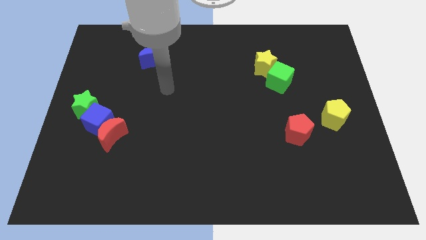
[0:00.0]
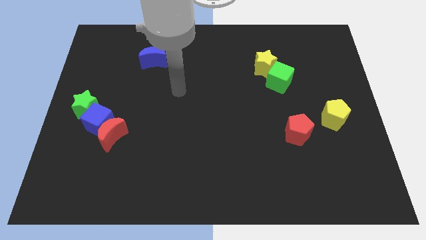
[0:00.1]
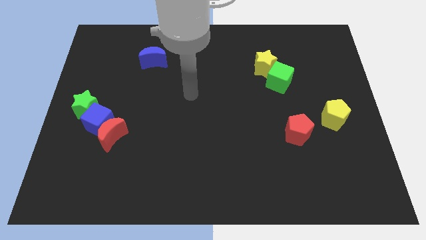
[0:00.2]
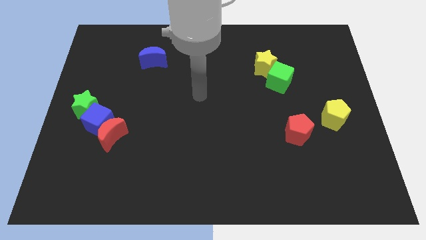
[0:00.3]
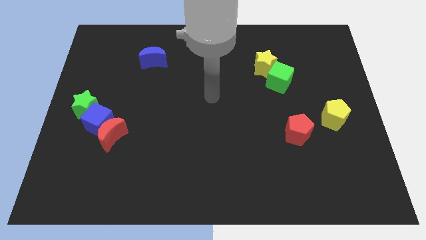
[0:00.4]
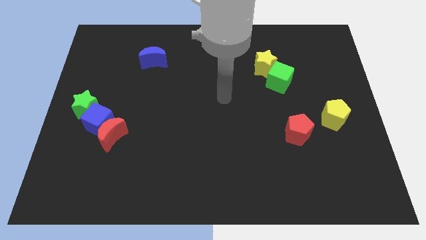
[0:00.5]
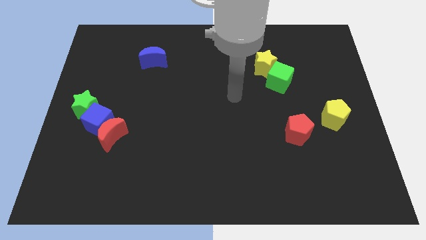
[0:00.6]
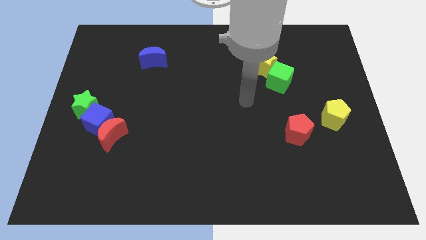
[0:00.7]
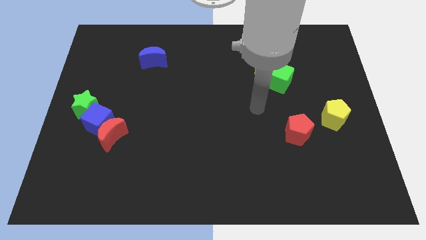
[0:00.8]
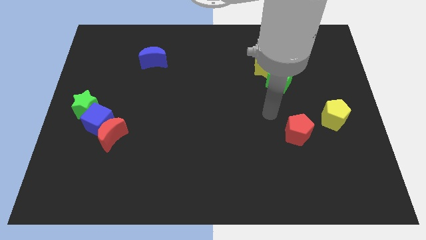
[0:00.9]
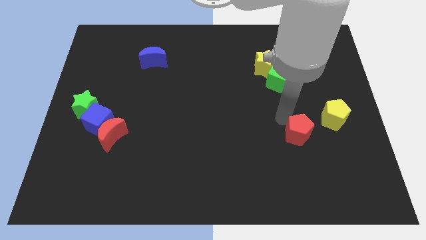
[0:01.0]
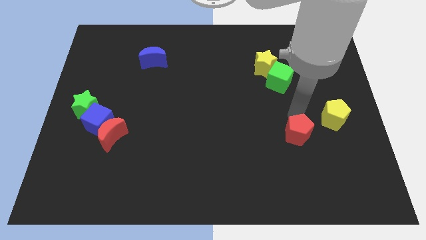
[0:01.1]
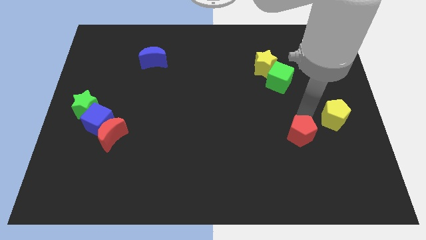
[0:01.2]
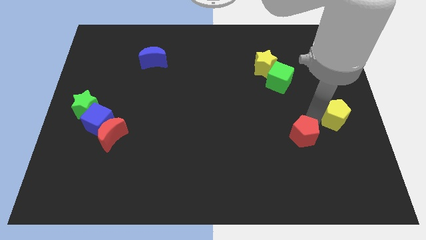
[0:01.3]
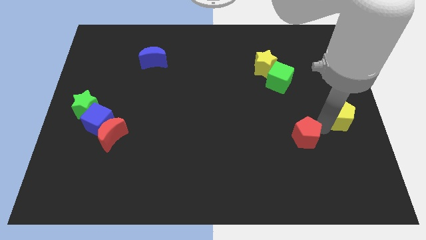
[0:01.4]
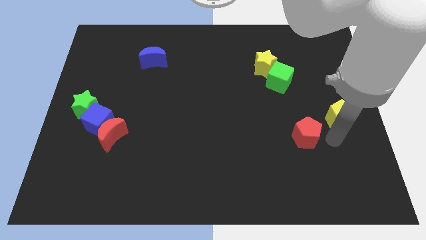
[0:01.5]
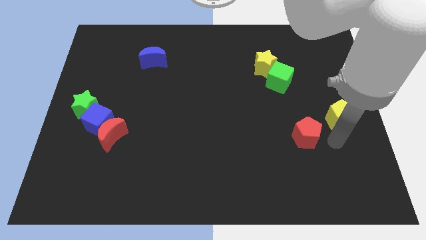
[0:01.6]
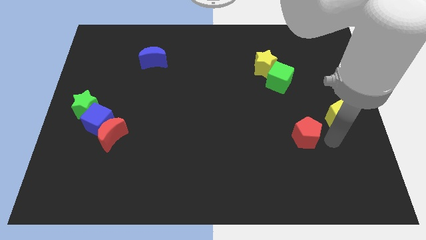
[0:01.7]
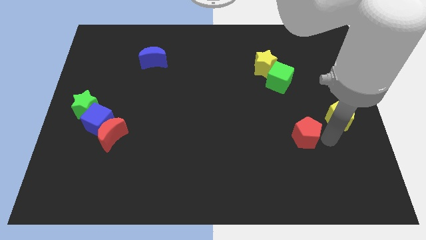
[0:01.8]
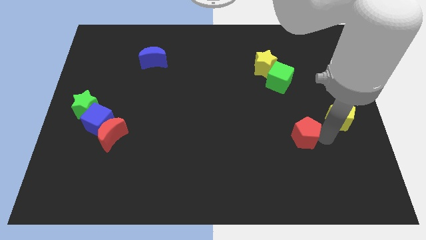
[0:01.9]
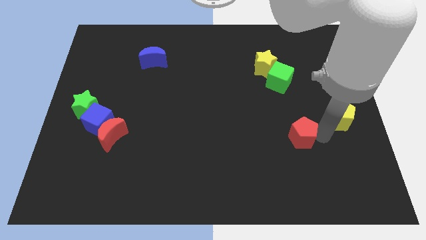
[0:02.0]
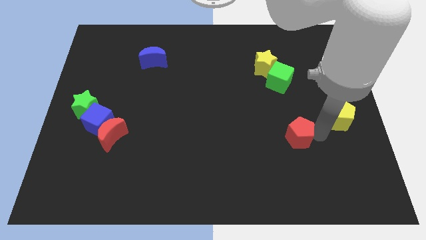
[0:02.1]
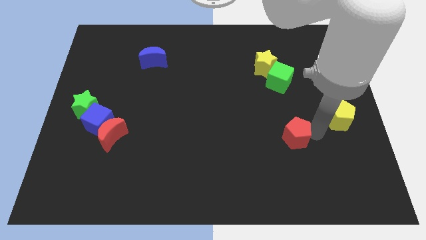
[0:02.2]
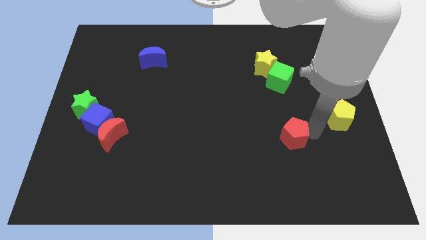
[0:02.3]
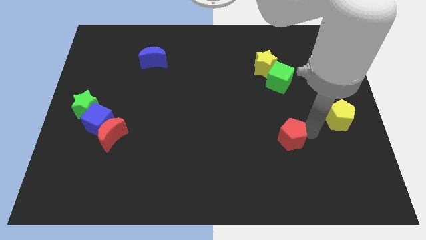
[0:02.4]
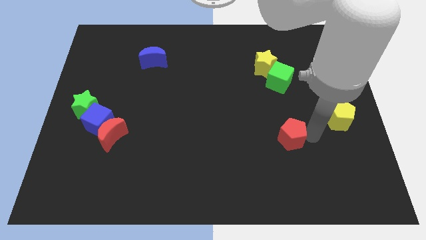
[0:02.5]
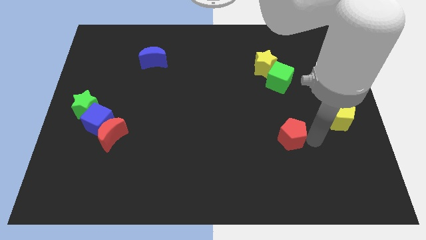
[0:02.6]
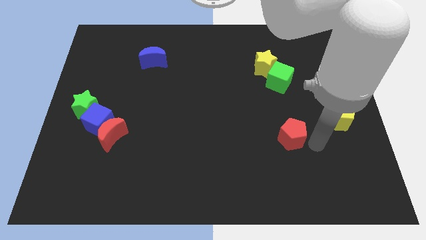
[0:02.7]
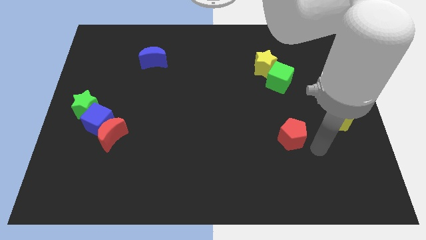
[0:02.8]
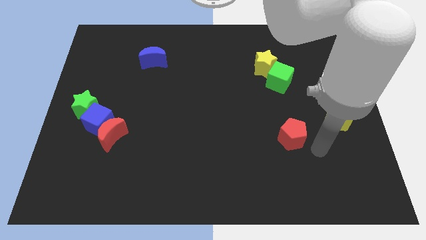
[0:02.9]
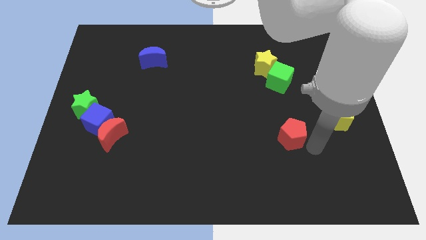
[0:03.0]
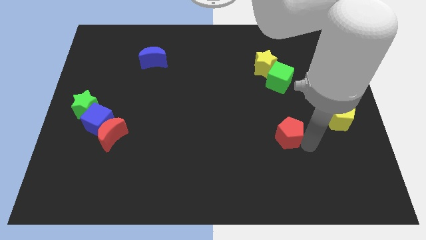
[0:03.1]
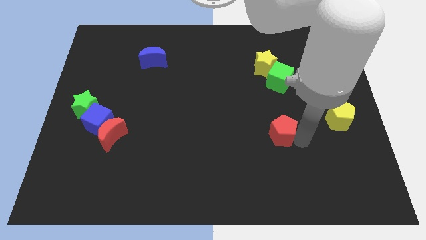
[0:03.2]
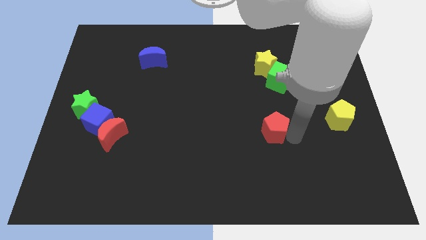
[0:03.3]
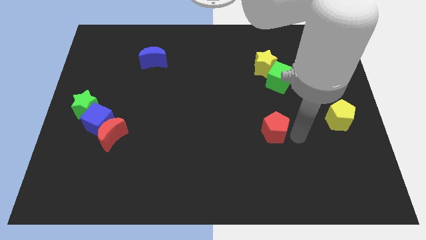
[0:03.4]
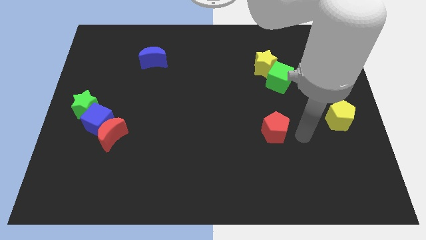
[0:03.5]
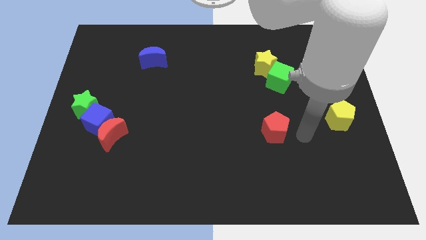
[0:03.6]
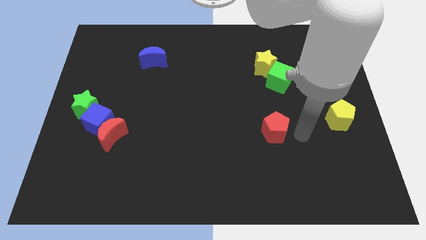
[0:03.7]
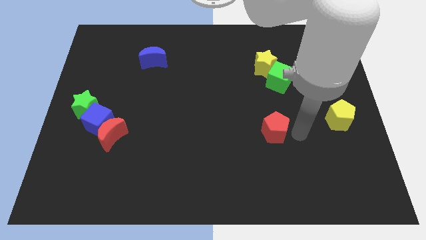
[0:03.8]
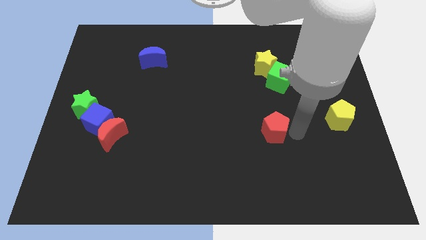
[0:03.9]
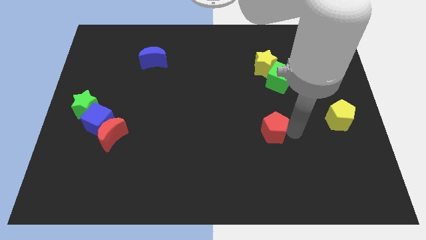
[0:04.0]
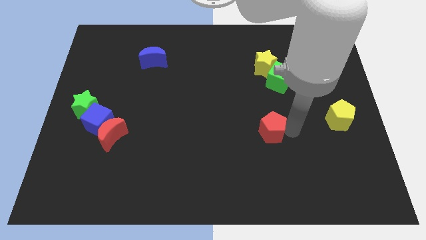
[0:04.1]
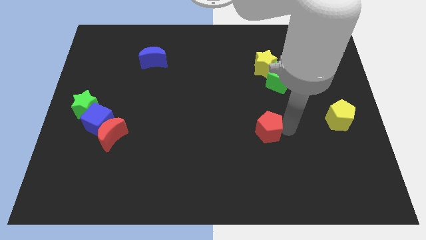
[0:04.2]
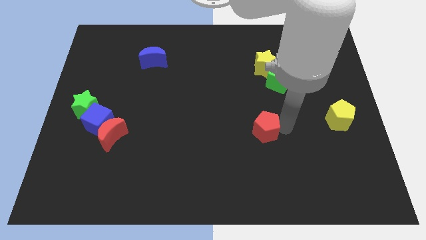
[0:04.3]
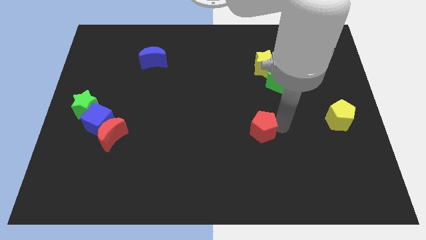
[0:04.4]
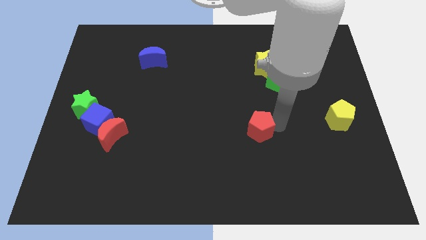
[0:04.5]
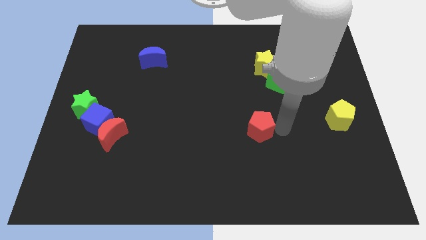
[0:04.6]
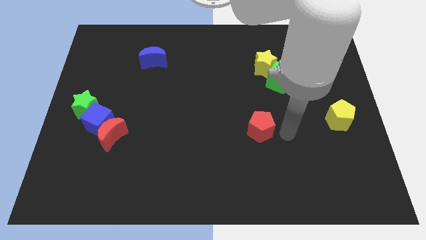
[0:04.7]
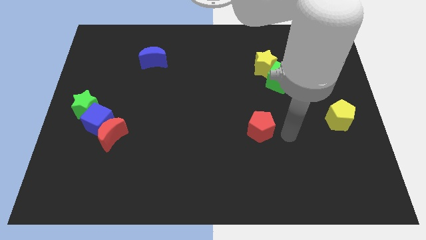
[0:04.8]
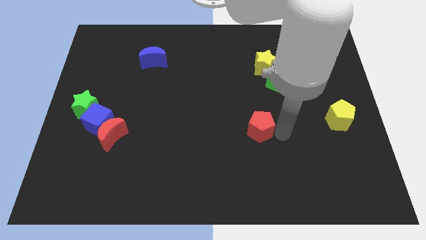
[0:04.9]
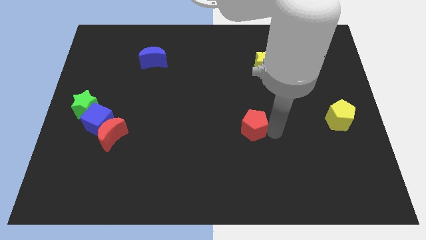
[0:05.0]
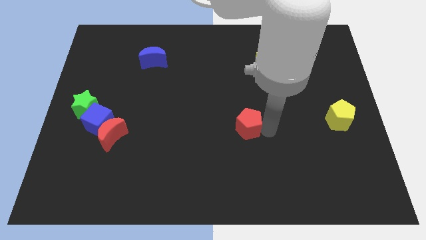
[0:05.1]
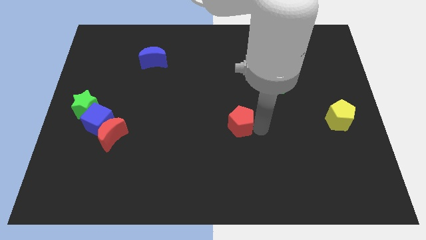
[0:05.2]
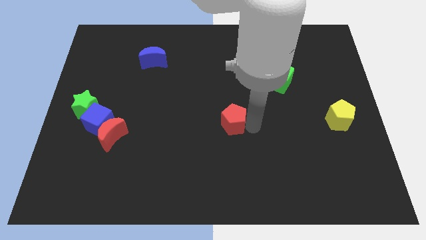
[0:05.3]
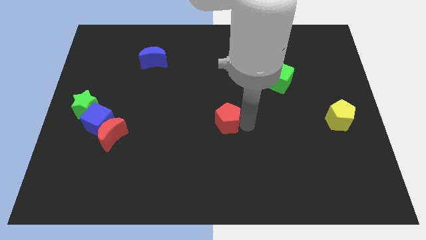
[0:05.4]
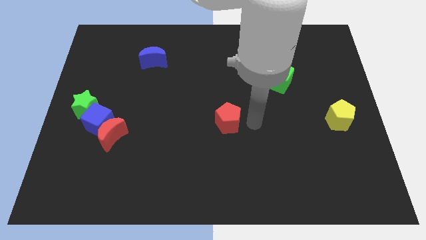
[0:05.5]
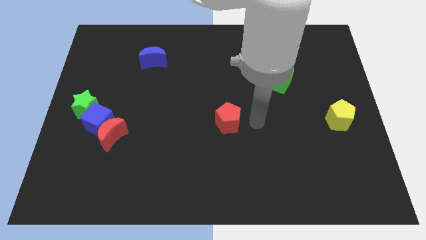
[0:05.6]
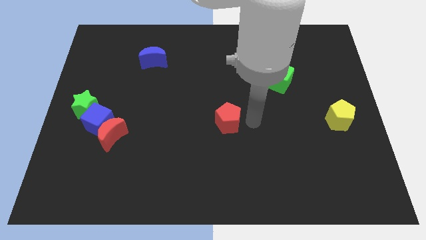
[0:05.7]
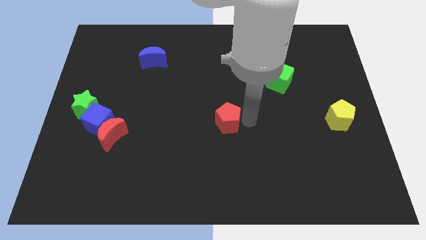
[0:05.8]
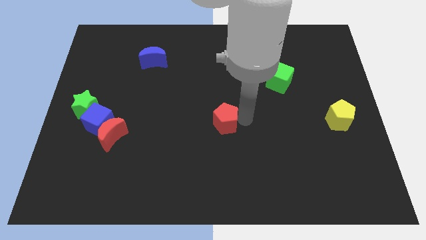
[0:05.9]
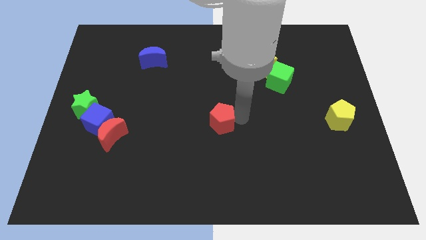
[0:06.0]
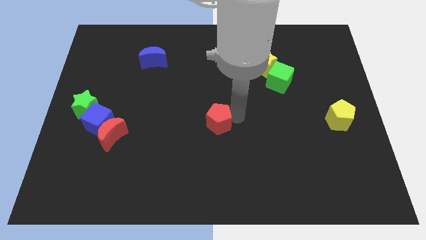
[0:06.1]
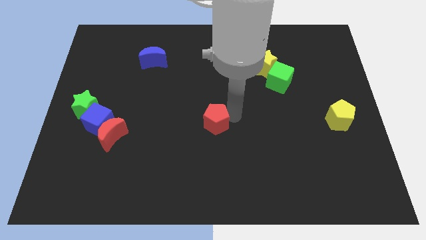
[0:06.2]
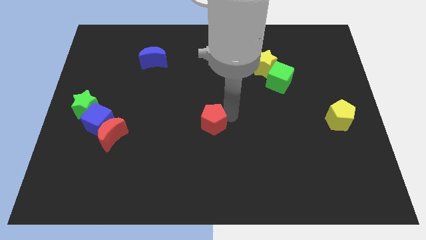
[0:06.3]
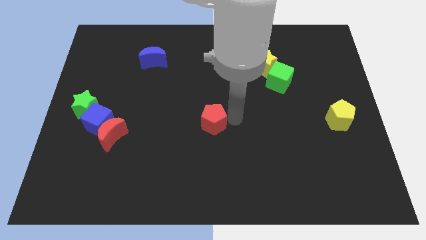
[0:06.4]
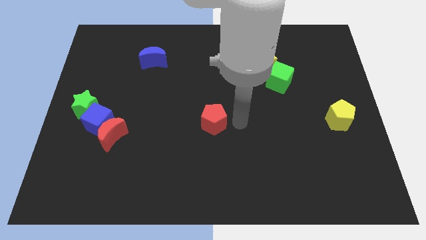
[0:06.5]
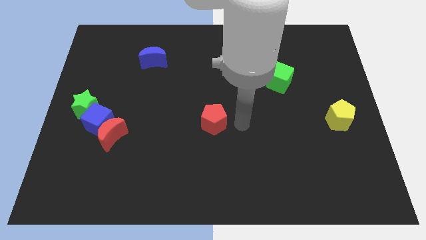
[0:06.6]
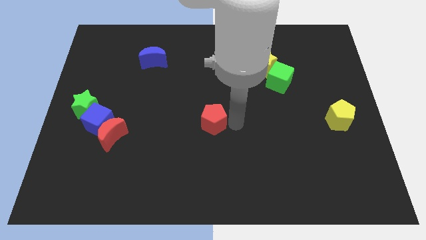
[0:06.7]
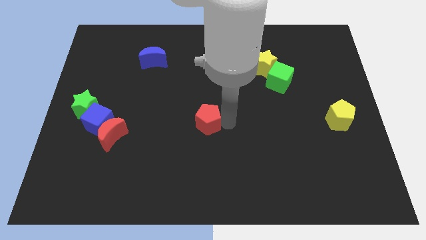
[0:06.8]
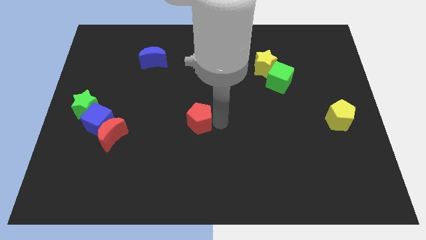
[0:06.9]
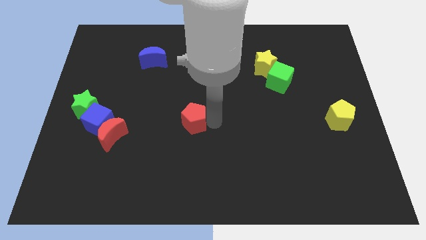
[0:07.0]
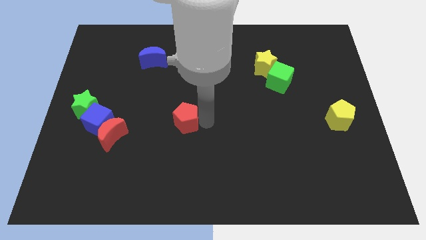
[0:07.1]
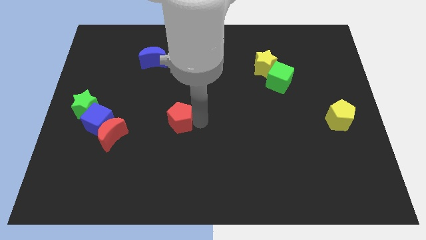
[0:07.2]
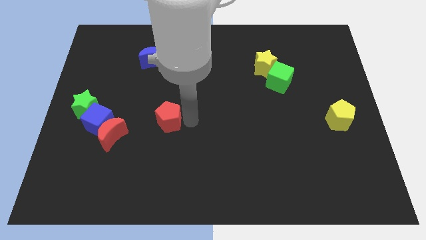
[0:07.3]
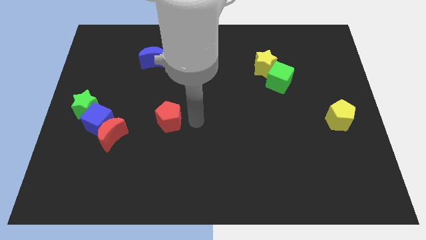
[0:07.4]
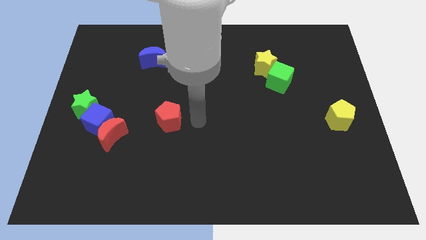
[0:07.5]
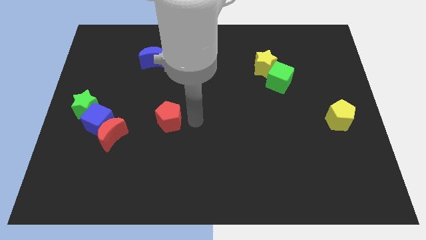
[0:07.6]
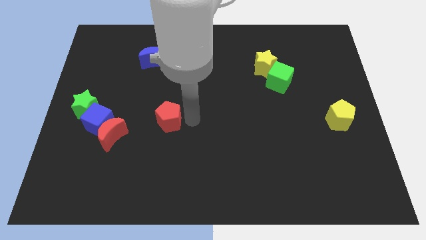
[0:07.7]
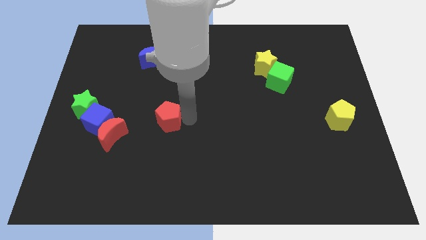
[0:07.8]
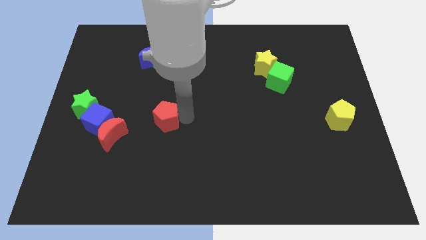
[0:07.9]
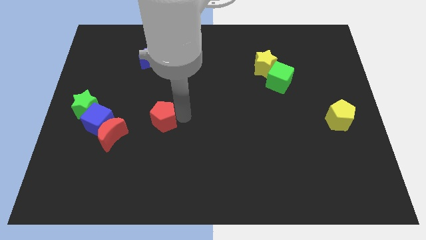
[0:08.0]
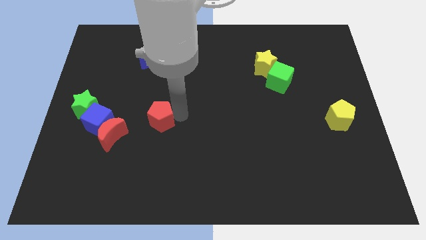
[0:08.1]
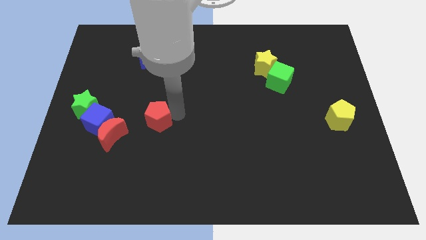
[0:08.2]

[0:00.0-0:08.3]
push the red pentagon to the top right side of the red moon
